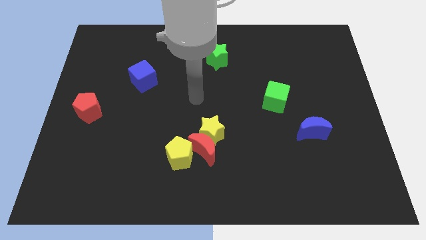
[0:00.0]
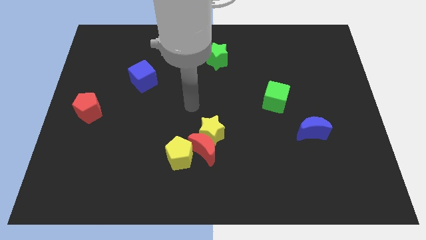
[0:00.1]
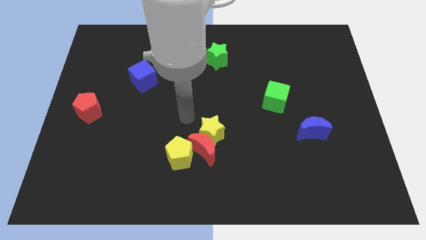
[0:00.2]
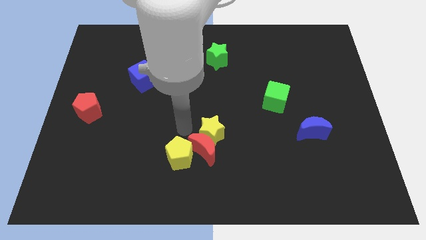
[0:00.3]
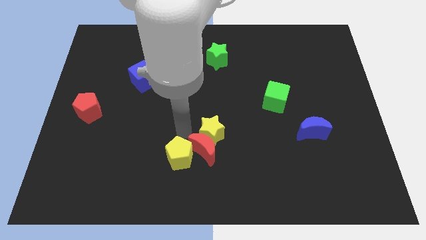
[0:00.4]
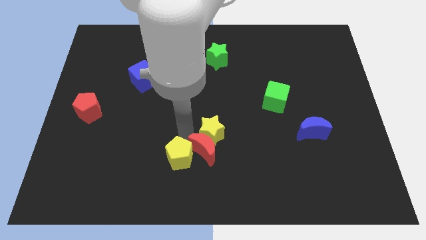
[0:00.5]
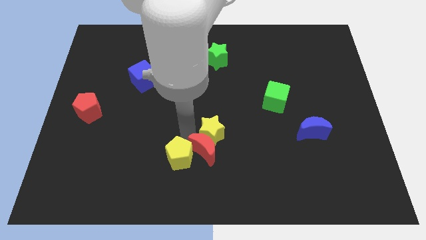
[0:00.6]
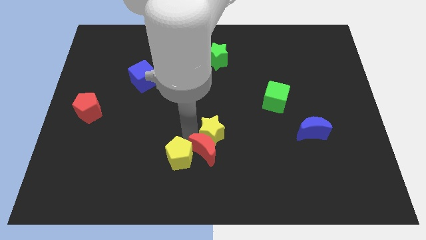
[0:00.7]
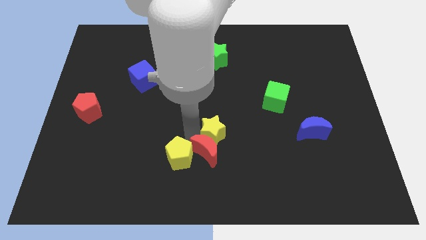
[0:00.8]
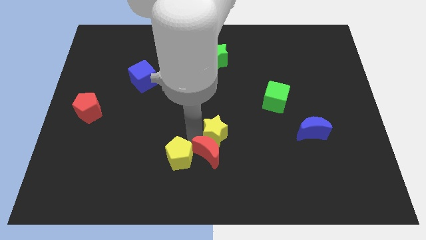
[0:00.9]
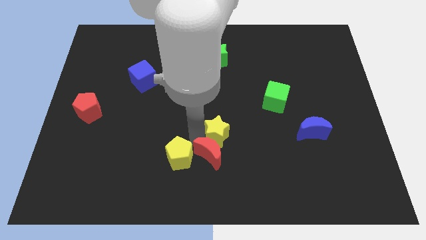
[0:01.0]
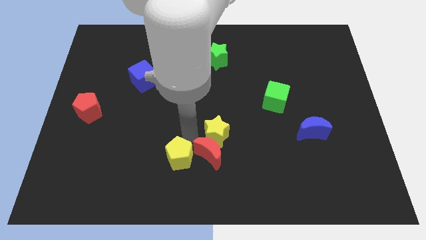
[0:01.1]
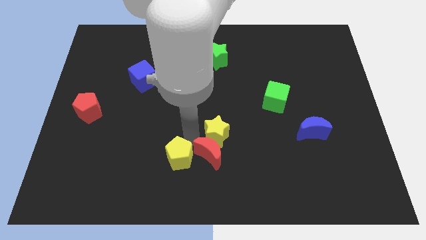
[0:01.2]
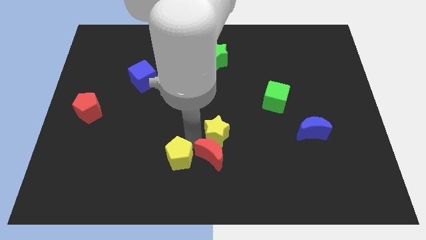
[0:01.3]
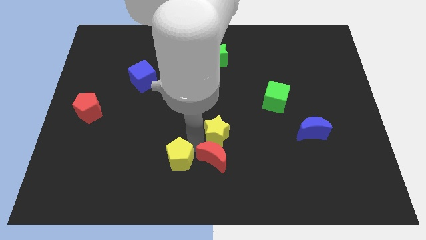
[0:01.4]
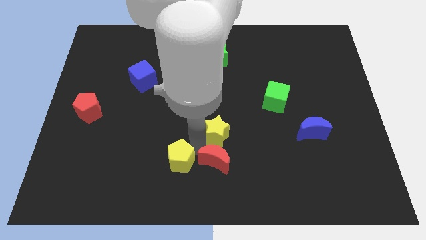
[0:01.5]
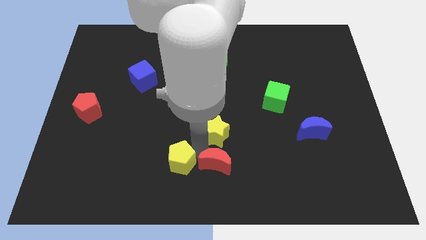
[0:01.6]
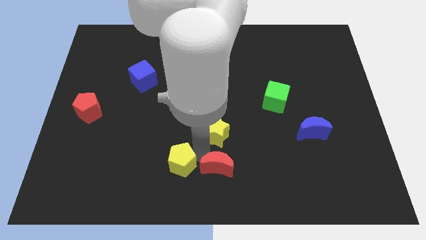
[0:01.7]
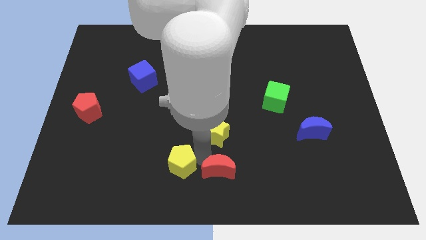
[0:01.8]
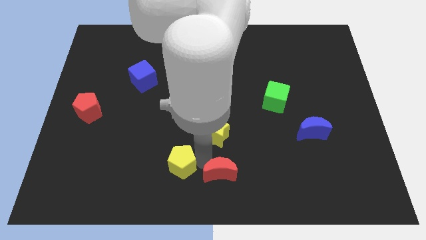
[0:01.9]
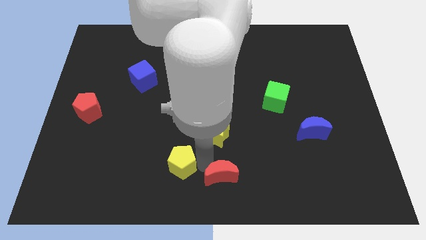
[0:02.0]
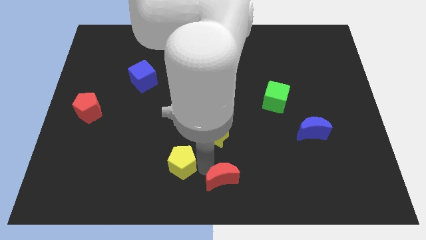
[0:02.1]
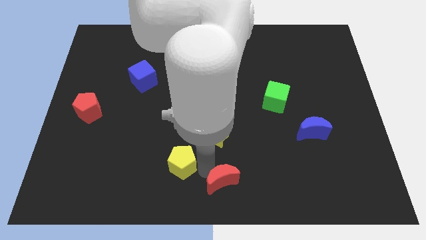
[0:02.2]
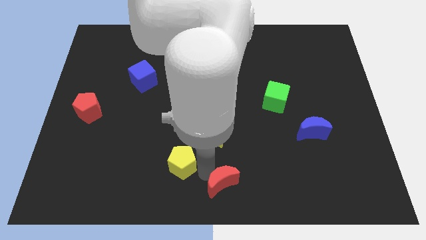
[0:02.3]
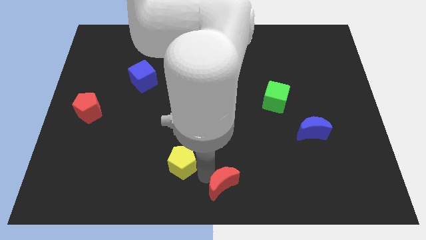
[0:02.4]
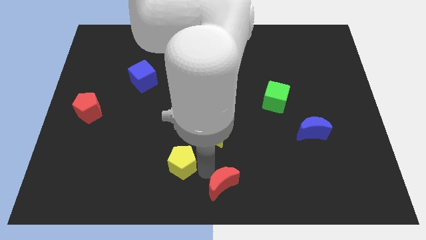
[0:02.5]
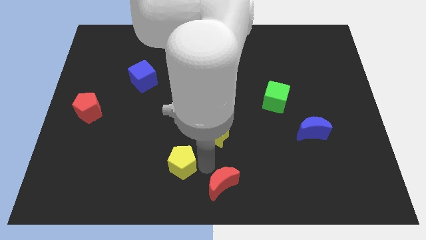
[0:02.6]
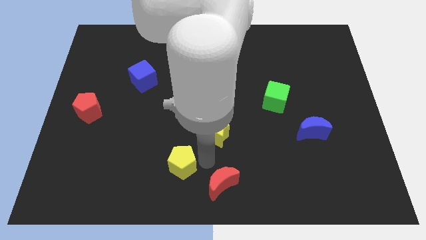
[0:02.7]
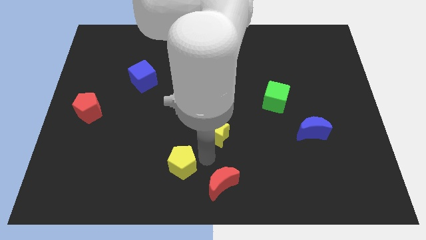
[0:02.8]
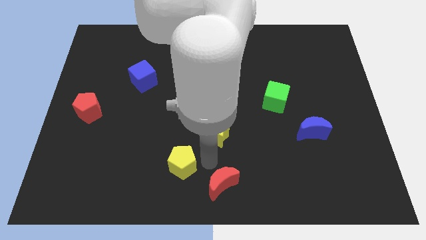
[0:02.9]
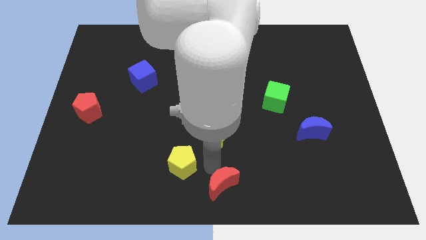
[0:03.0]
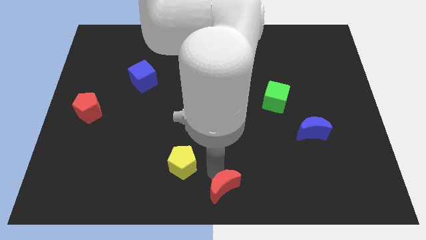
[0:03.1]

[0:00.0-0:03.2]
move the red moon away from the yellow star and yellow pentagon

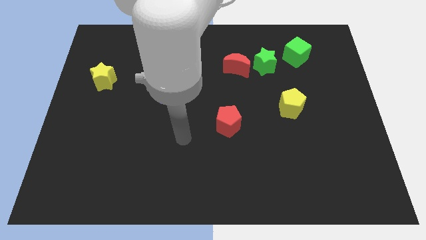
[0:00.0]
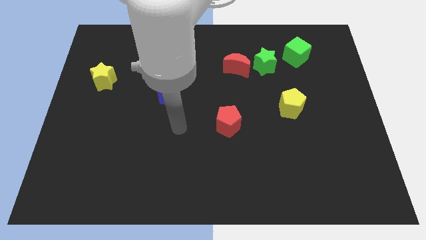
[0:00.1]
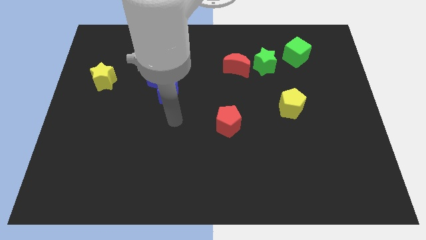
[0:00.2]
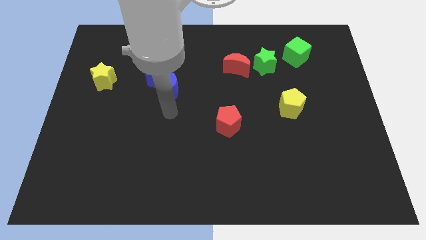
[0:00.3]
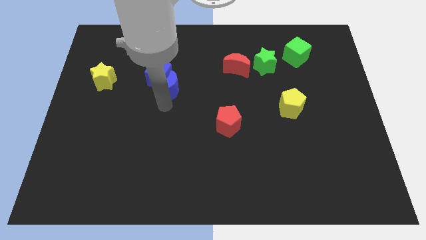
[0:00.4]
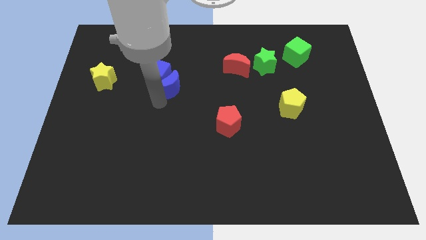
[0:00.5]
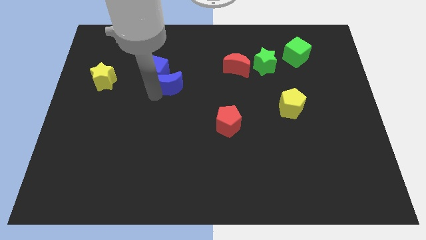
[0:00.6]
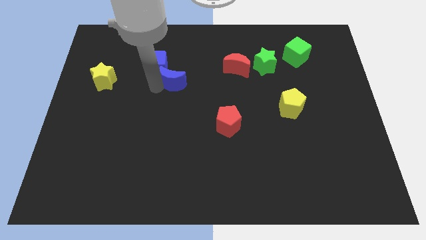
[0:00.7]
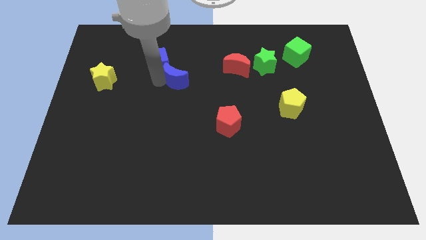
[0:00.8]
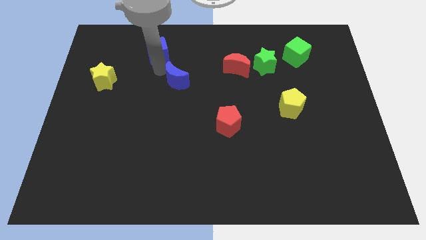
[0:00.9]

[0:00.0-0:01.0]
separate the blue moon from the blue cube

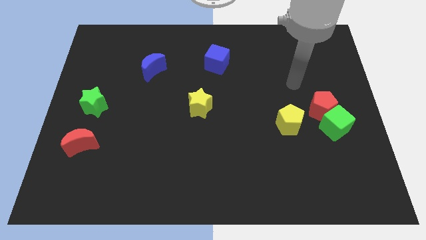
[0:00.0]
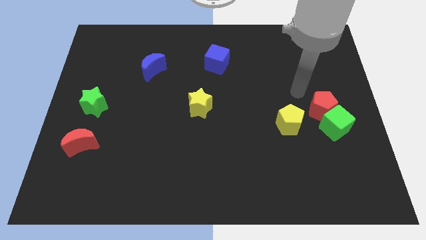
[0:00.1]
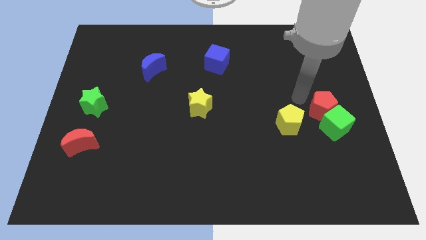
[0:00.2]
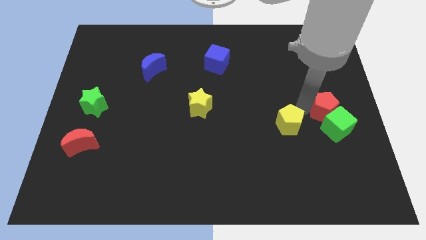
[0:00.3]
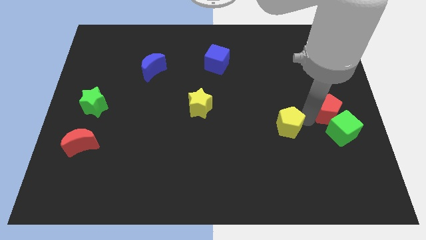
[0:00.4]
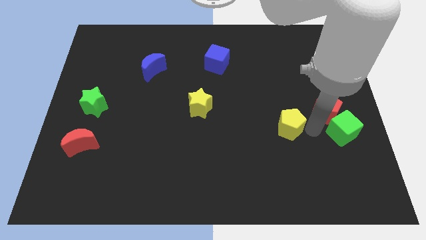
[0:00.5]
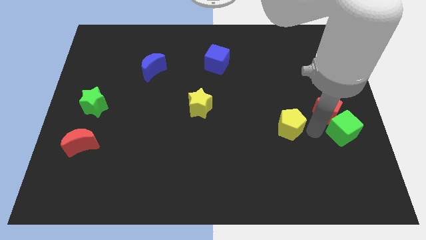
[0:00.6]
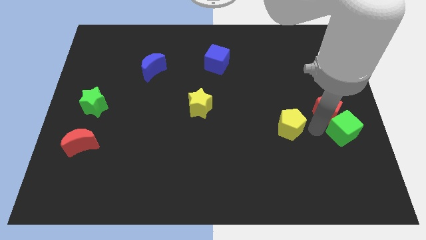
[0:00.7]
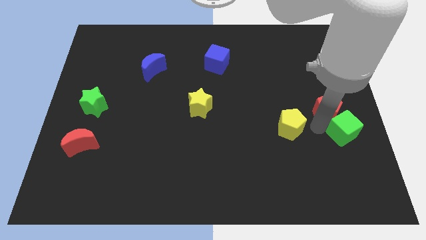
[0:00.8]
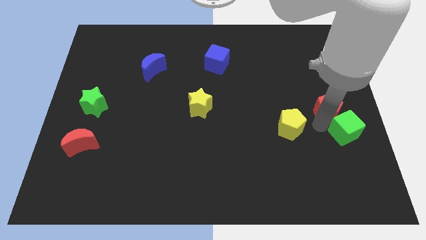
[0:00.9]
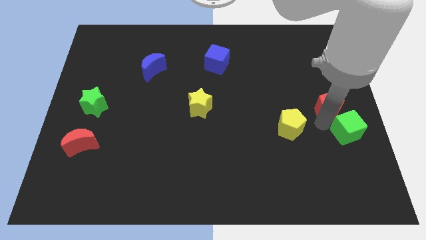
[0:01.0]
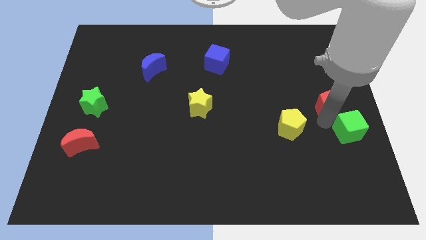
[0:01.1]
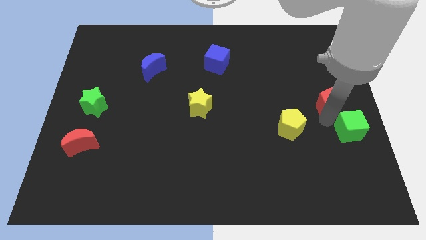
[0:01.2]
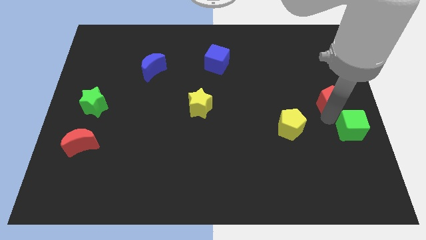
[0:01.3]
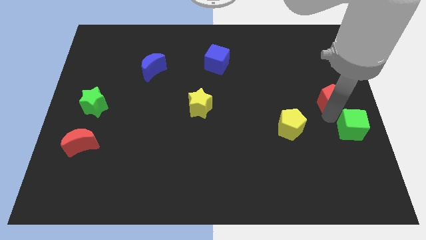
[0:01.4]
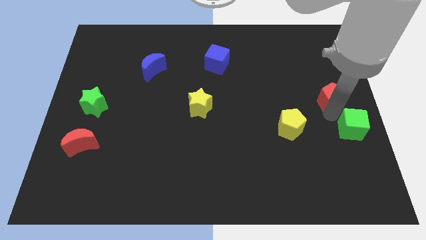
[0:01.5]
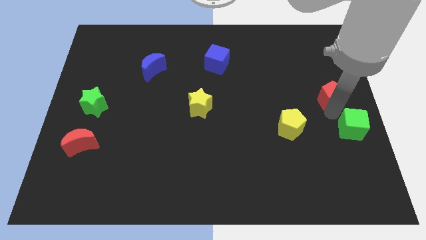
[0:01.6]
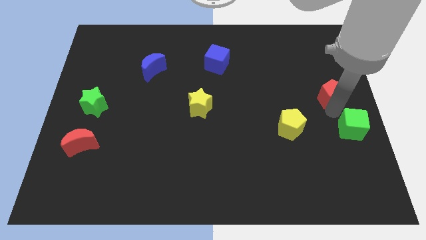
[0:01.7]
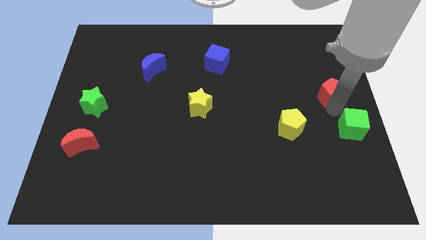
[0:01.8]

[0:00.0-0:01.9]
pull the red pentagon apart from the green cube and yellow pentagon

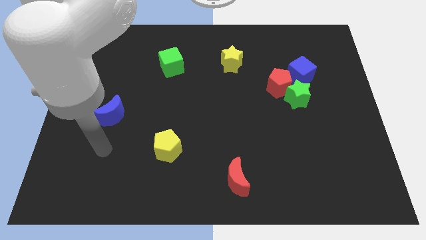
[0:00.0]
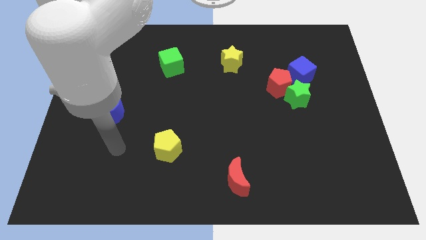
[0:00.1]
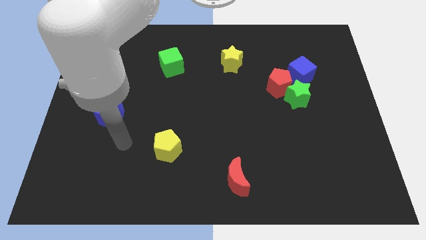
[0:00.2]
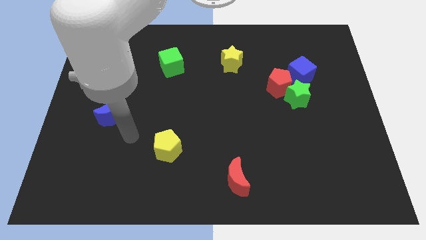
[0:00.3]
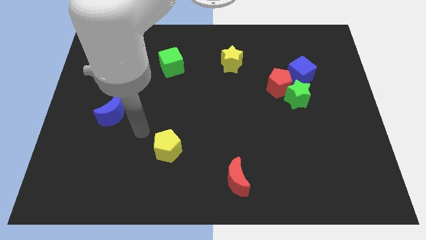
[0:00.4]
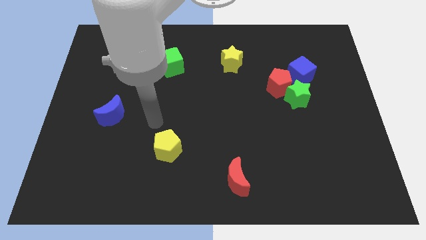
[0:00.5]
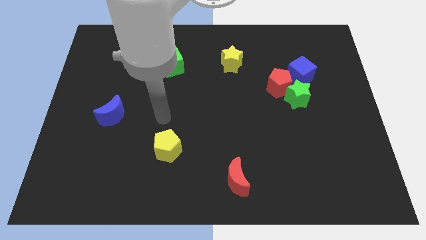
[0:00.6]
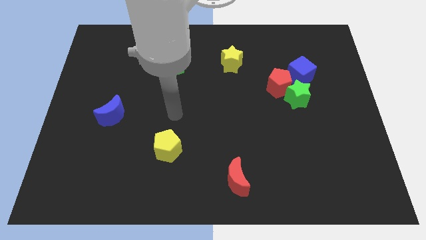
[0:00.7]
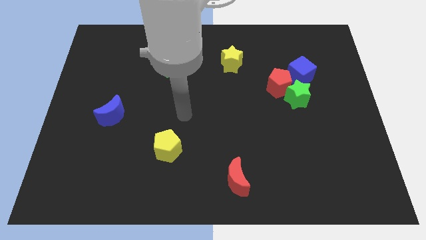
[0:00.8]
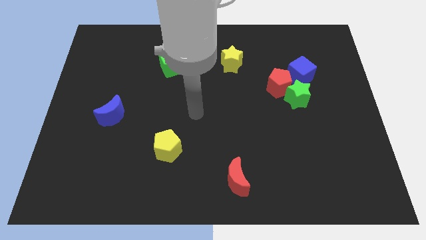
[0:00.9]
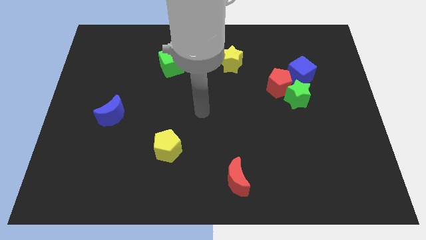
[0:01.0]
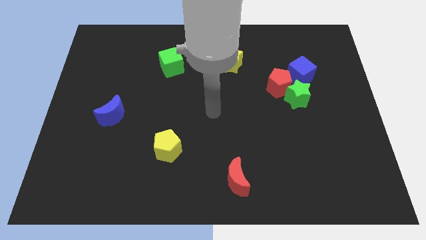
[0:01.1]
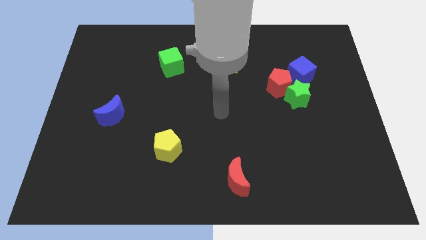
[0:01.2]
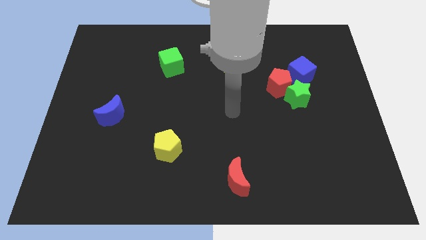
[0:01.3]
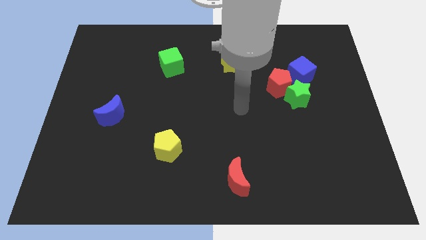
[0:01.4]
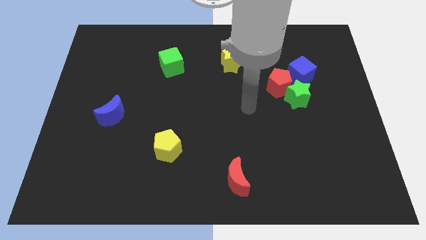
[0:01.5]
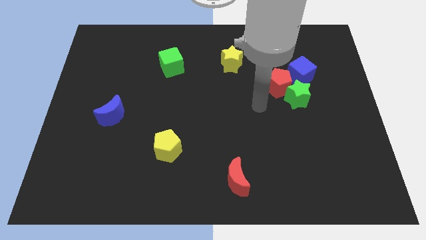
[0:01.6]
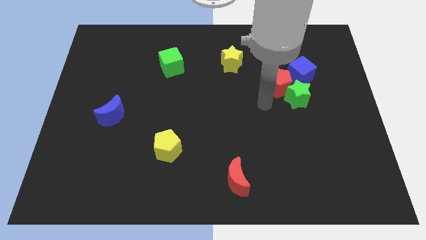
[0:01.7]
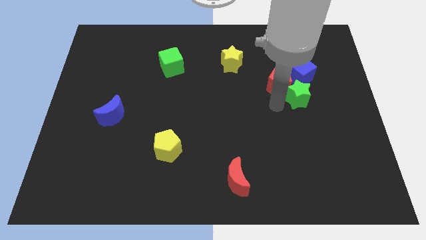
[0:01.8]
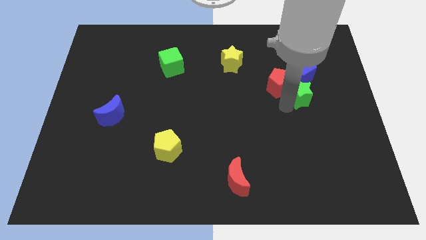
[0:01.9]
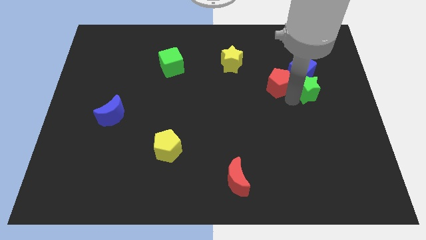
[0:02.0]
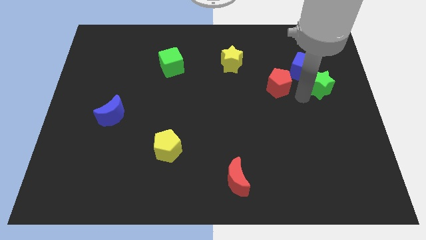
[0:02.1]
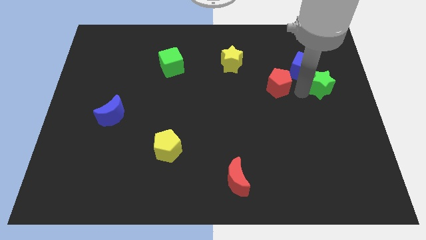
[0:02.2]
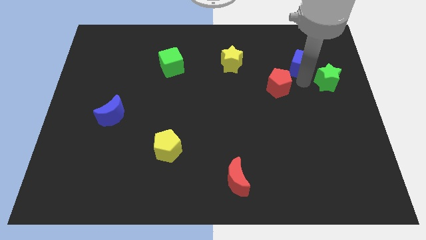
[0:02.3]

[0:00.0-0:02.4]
separate the red pentagon from the green star and blue cube

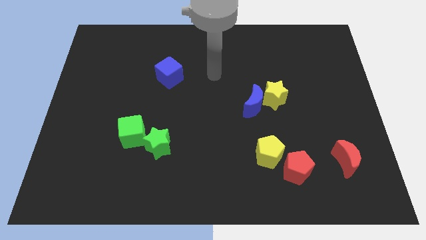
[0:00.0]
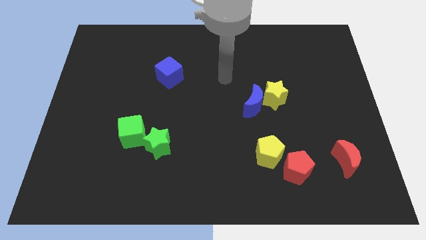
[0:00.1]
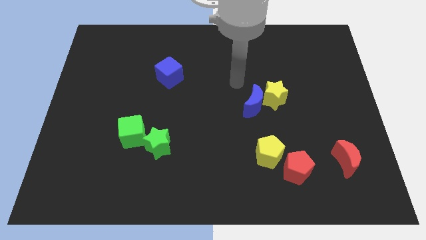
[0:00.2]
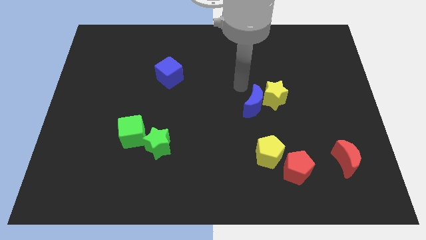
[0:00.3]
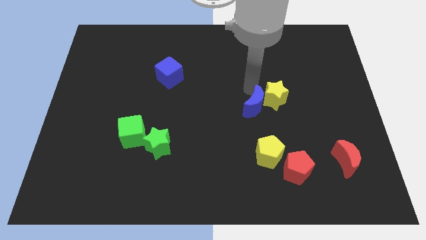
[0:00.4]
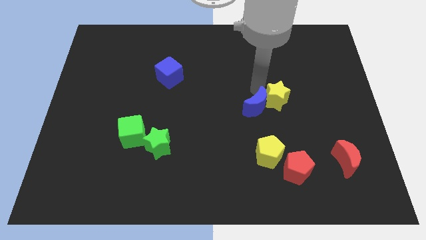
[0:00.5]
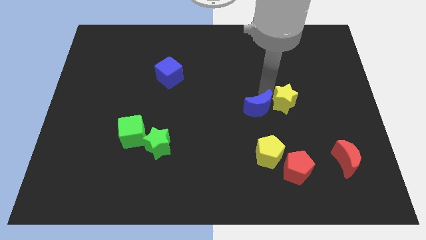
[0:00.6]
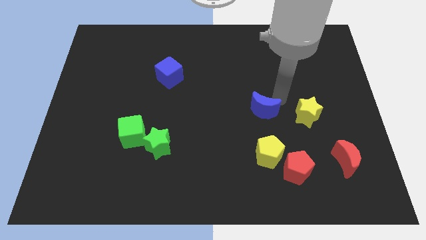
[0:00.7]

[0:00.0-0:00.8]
move the blue moon away from the yellow star
